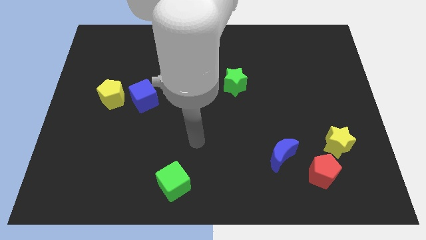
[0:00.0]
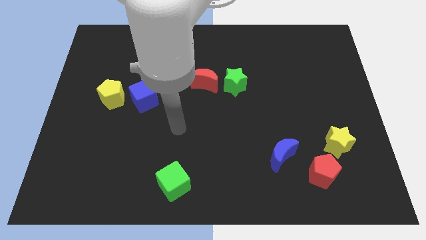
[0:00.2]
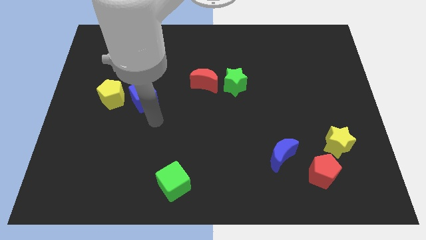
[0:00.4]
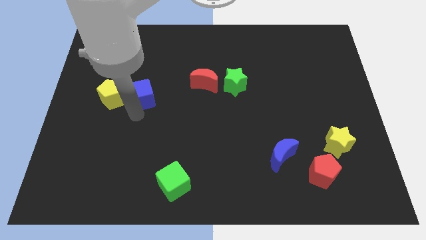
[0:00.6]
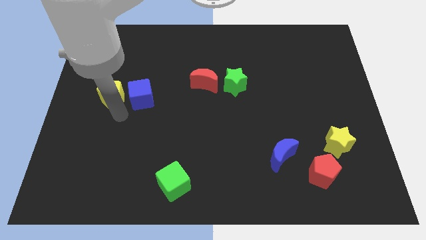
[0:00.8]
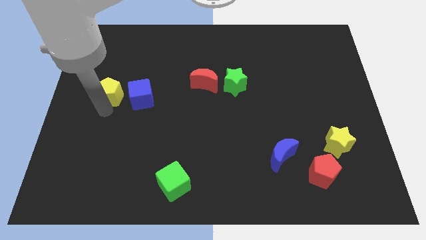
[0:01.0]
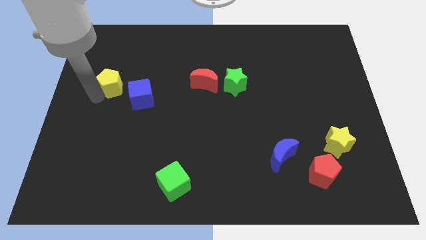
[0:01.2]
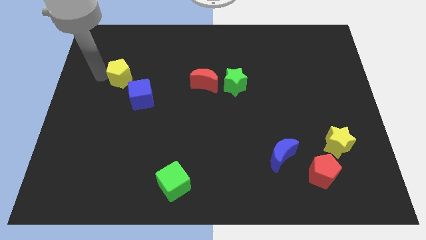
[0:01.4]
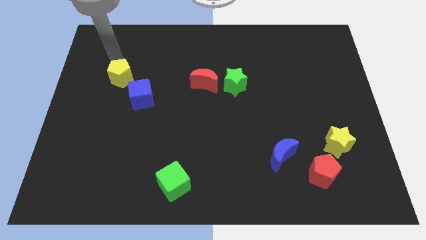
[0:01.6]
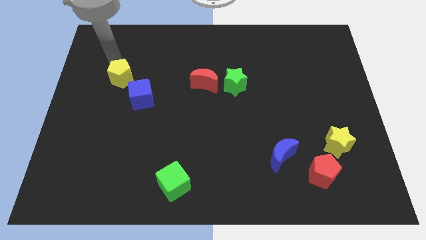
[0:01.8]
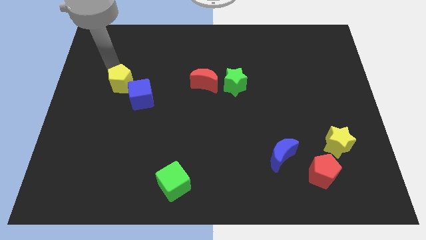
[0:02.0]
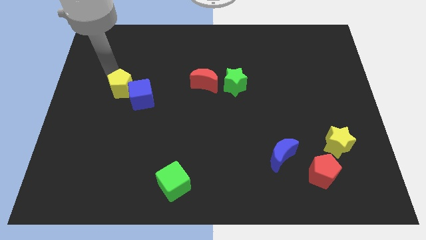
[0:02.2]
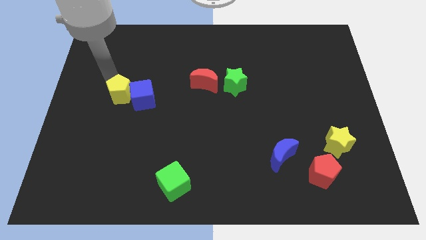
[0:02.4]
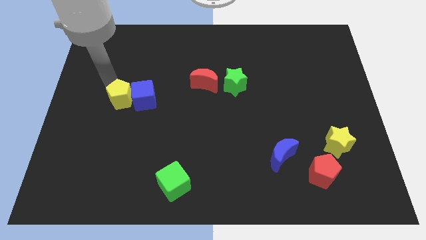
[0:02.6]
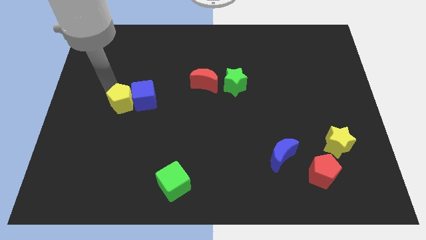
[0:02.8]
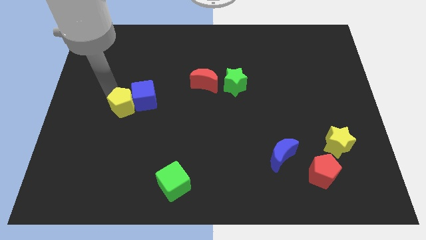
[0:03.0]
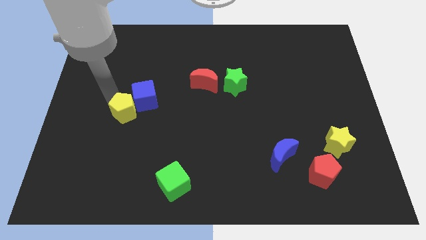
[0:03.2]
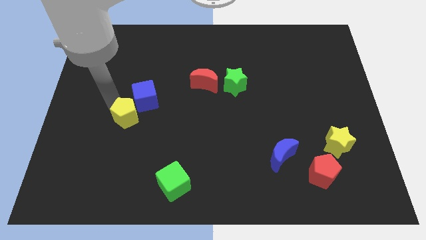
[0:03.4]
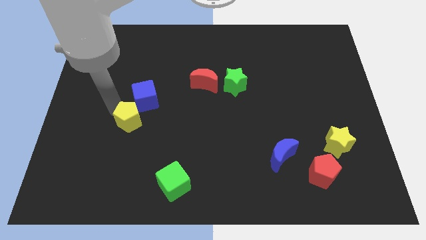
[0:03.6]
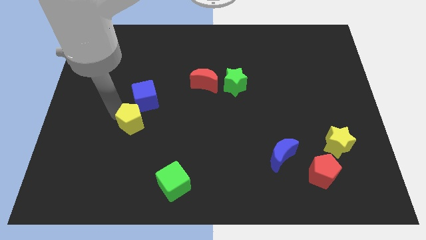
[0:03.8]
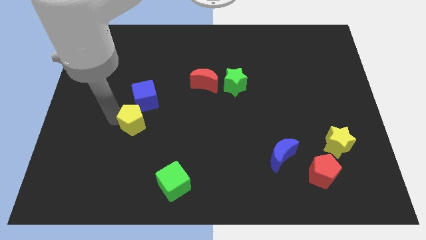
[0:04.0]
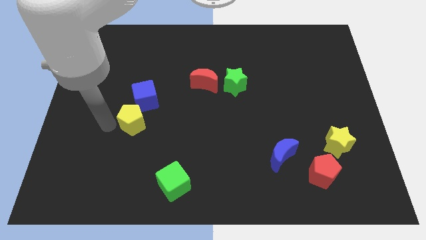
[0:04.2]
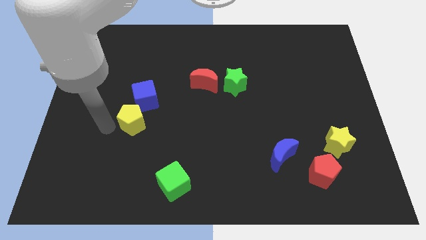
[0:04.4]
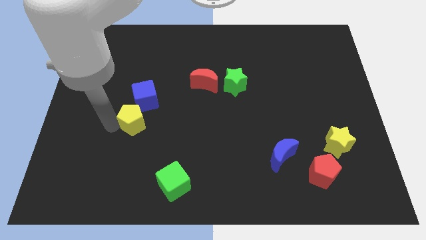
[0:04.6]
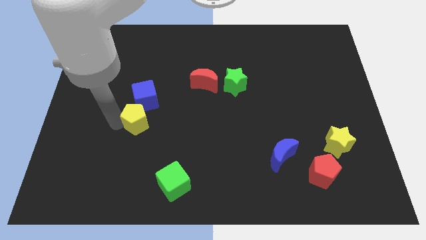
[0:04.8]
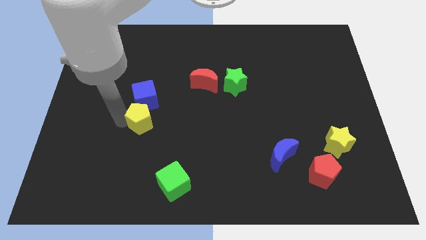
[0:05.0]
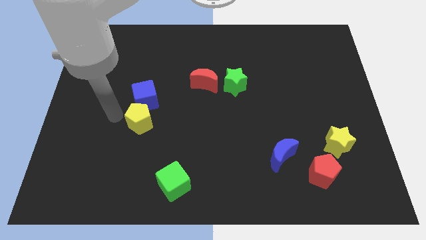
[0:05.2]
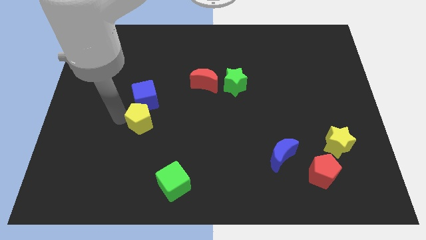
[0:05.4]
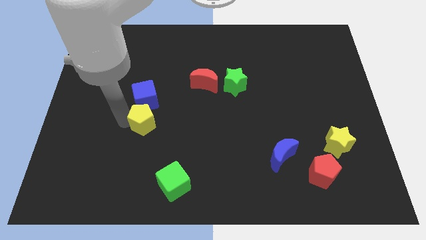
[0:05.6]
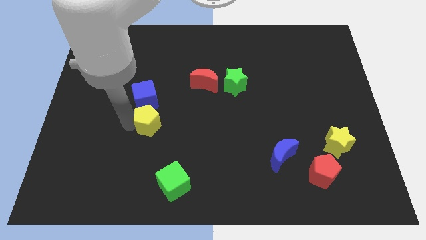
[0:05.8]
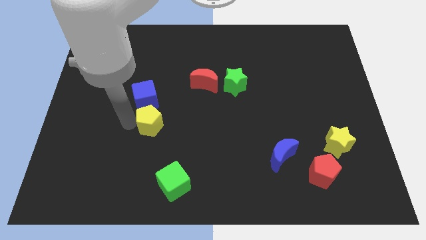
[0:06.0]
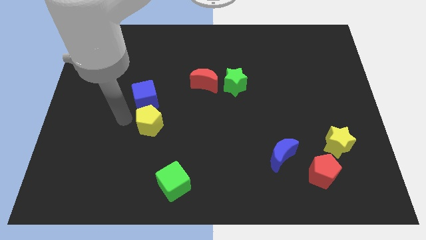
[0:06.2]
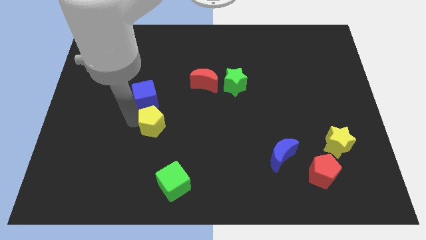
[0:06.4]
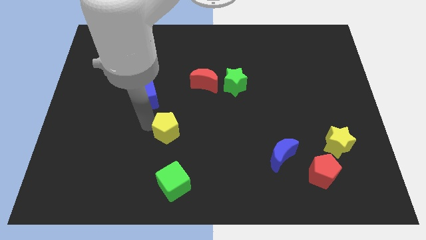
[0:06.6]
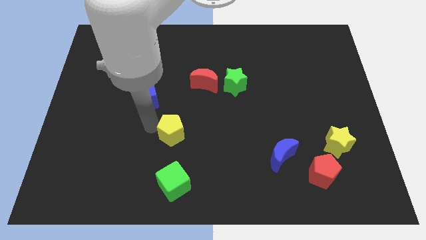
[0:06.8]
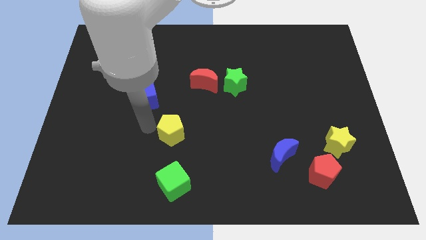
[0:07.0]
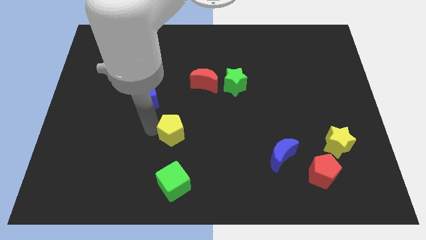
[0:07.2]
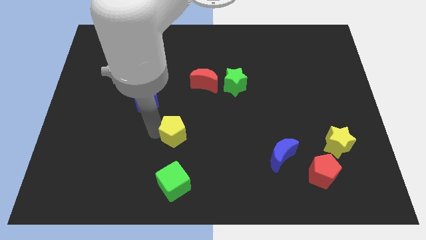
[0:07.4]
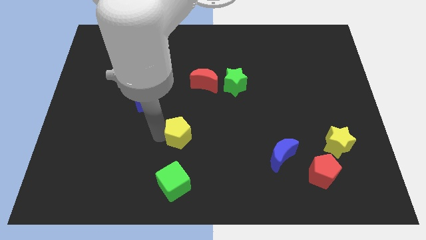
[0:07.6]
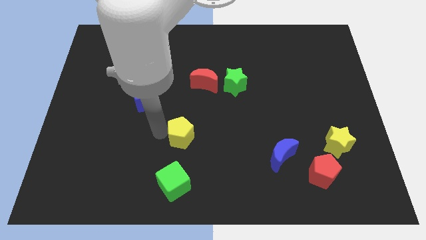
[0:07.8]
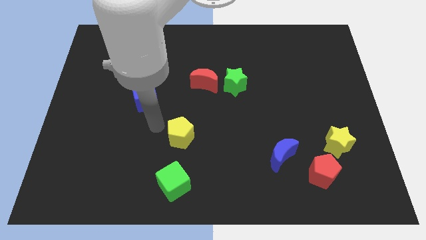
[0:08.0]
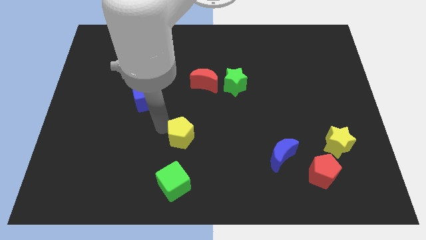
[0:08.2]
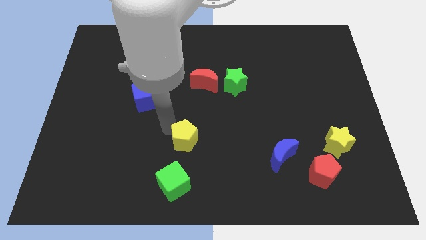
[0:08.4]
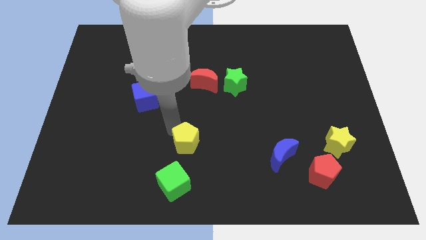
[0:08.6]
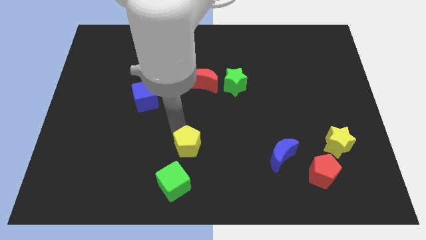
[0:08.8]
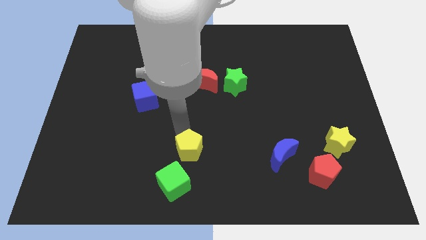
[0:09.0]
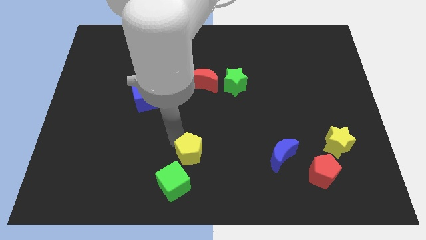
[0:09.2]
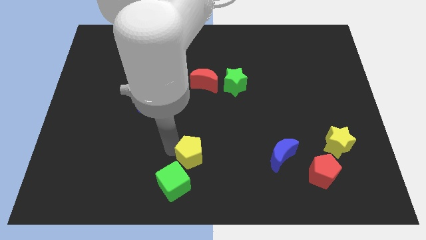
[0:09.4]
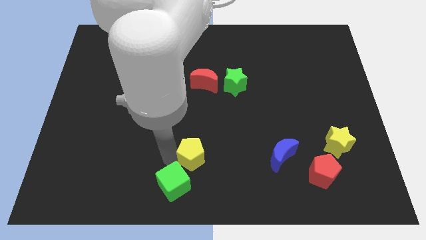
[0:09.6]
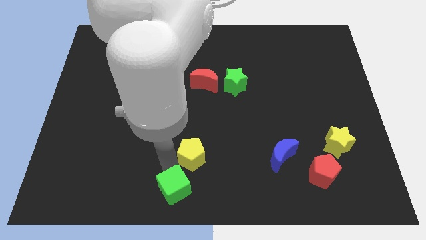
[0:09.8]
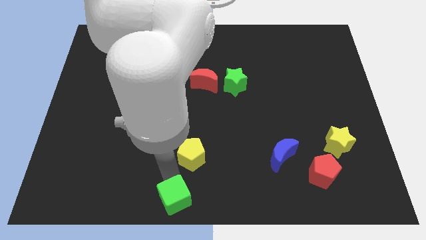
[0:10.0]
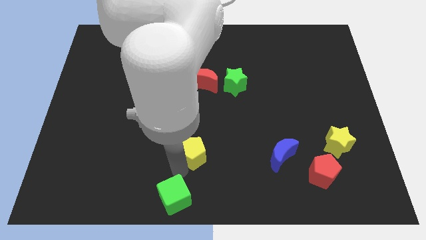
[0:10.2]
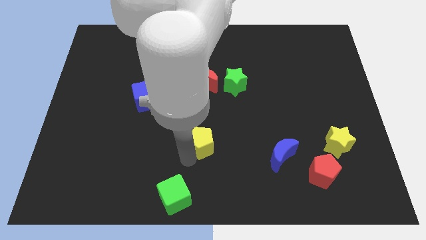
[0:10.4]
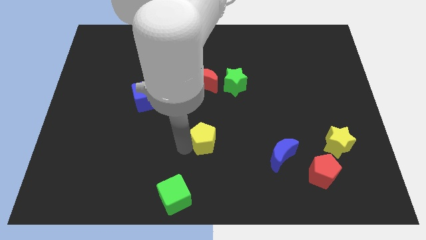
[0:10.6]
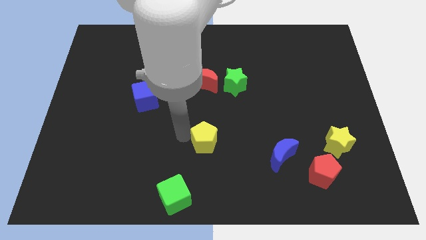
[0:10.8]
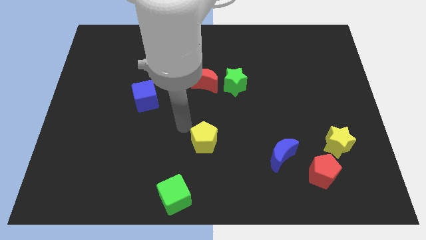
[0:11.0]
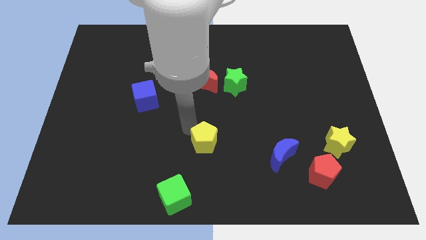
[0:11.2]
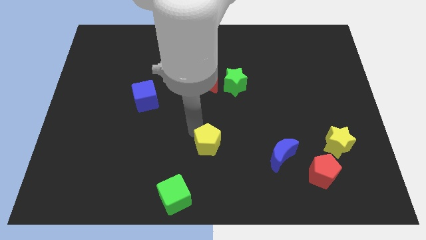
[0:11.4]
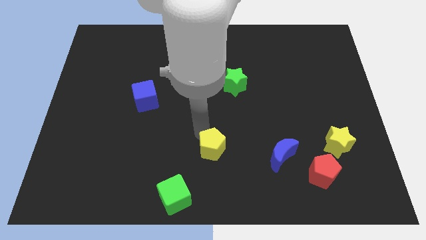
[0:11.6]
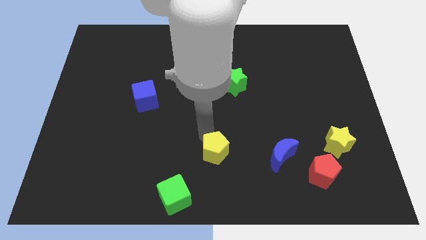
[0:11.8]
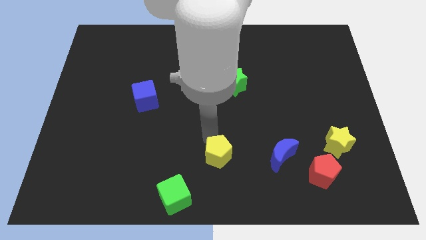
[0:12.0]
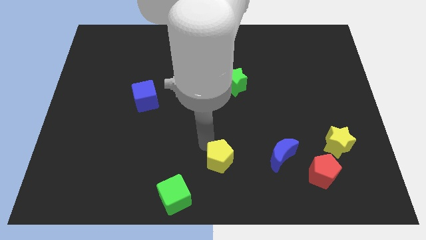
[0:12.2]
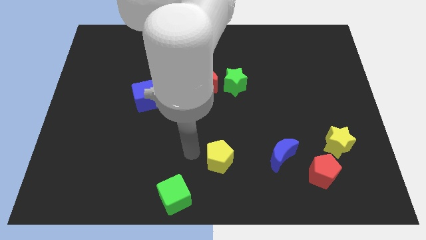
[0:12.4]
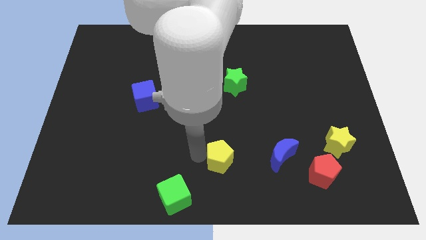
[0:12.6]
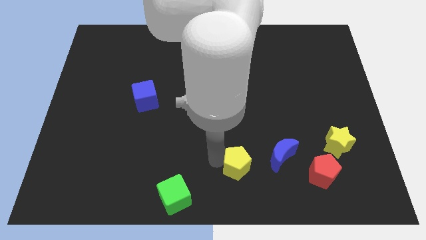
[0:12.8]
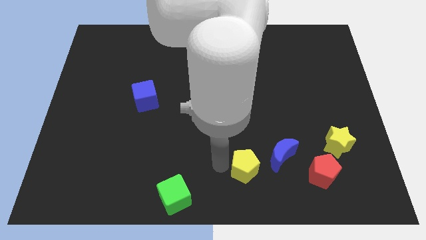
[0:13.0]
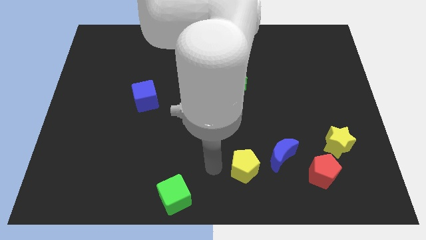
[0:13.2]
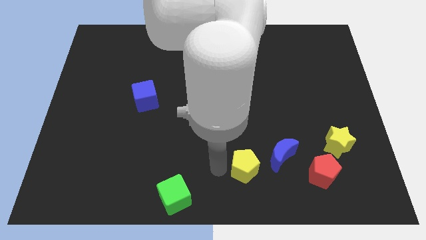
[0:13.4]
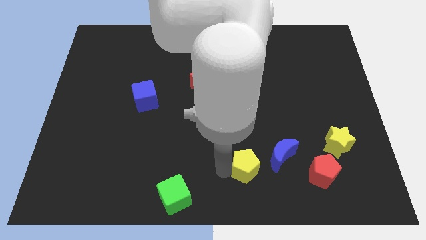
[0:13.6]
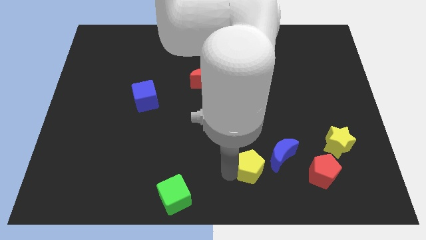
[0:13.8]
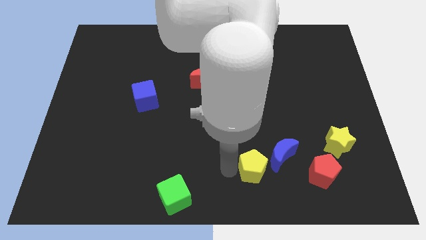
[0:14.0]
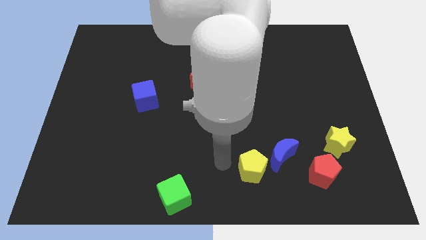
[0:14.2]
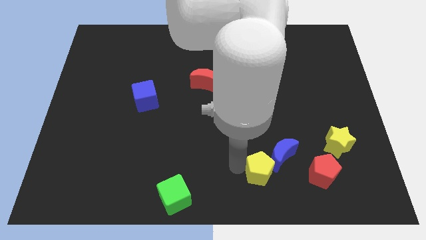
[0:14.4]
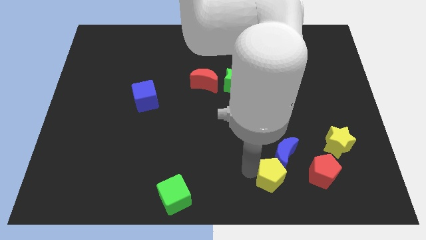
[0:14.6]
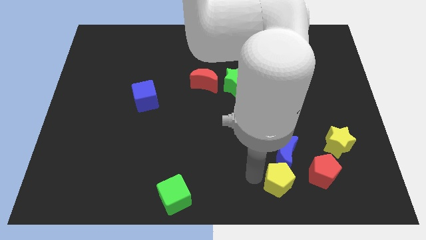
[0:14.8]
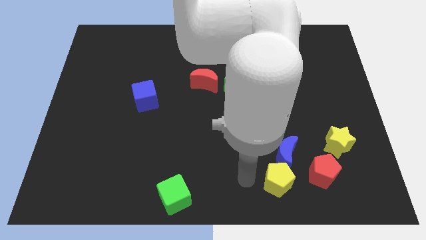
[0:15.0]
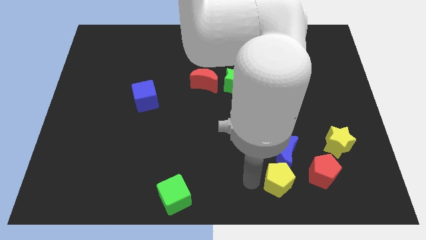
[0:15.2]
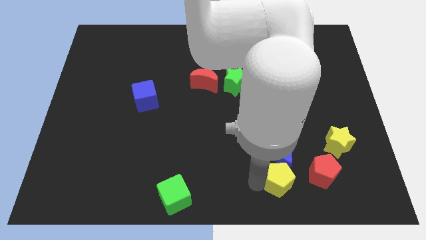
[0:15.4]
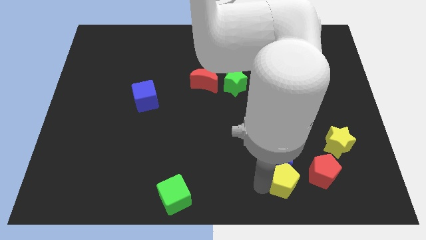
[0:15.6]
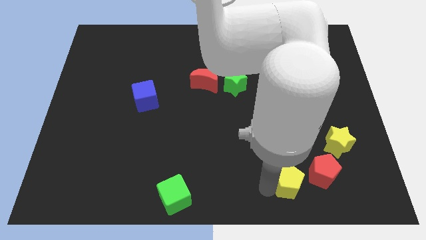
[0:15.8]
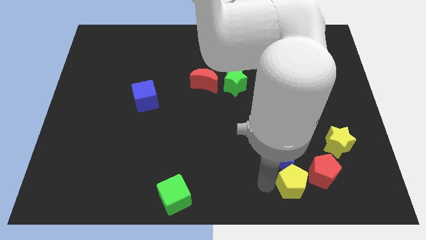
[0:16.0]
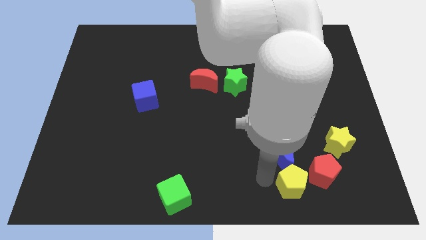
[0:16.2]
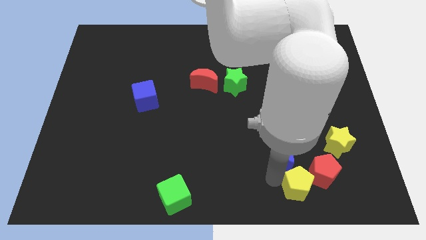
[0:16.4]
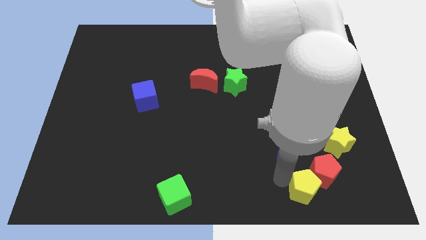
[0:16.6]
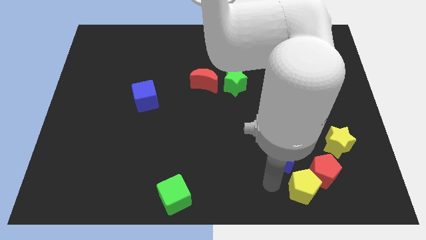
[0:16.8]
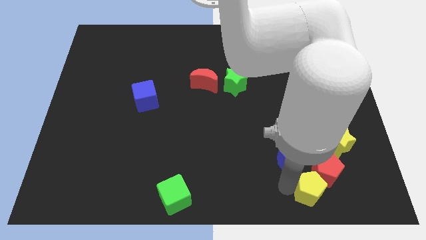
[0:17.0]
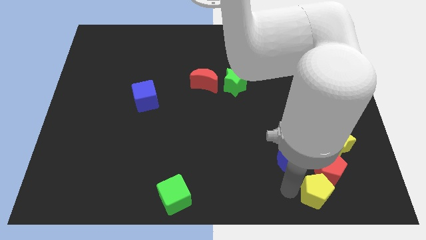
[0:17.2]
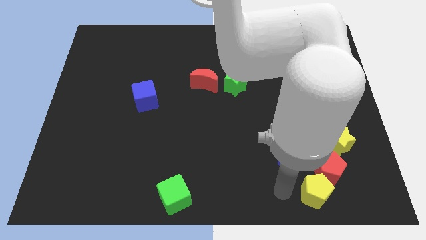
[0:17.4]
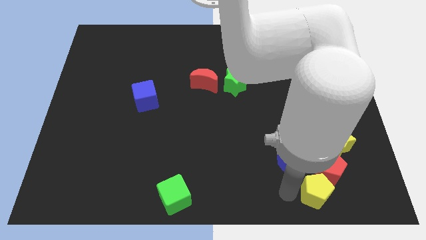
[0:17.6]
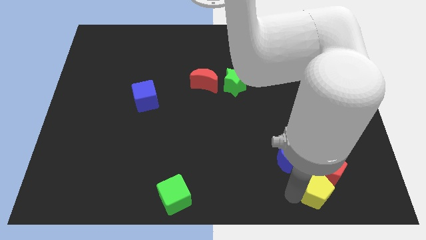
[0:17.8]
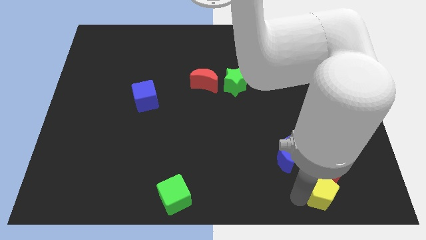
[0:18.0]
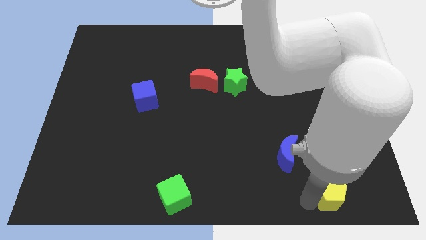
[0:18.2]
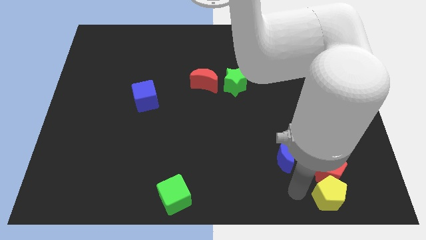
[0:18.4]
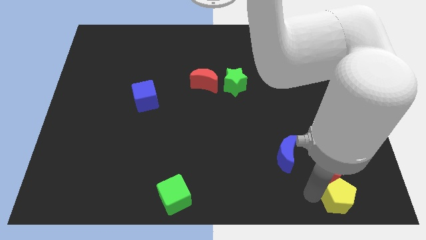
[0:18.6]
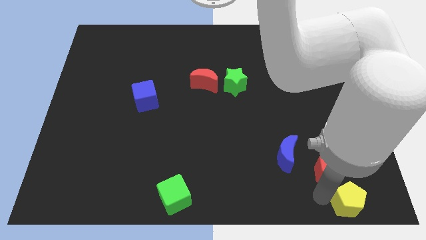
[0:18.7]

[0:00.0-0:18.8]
slide the yellow pentagon to the bottom right
